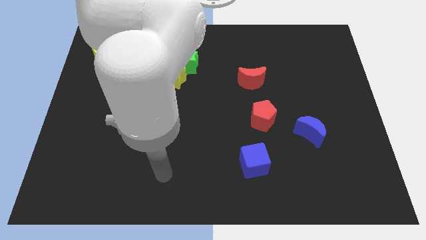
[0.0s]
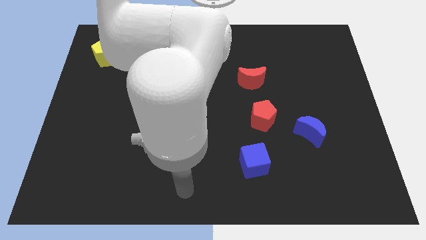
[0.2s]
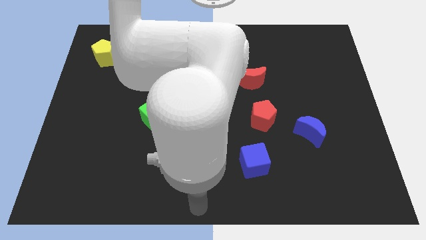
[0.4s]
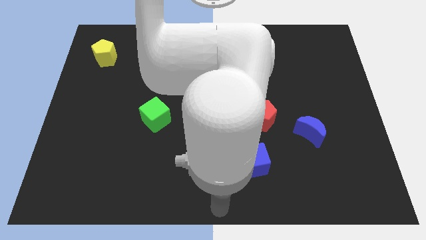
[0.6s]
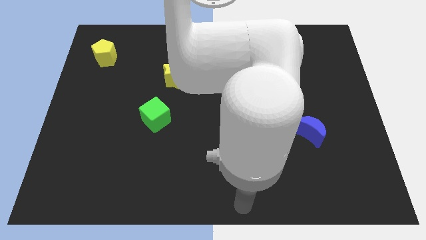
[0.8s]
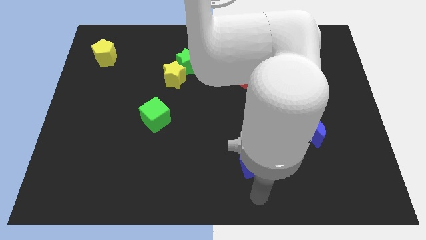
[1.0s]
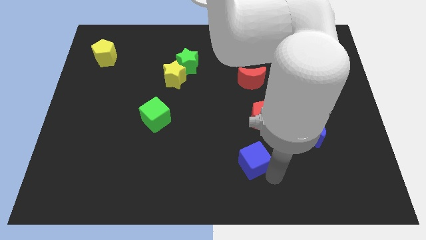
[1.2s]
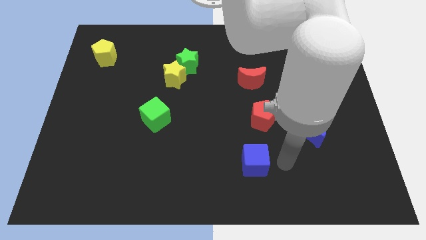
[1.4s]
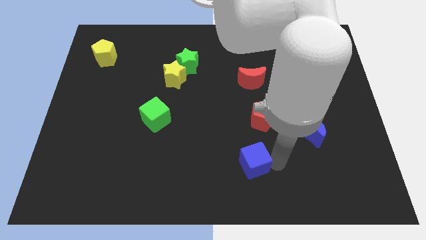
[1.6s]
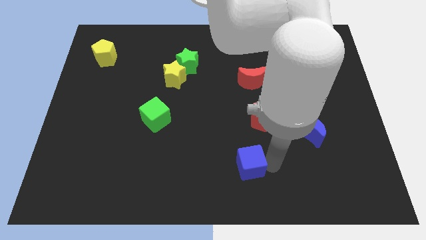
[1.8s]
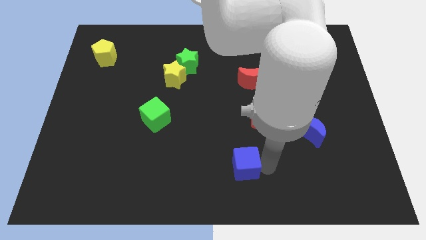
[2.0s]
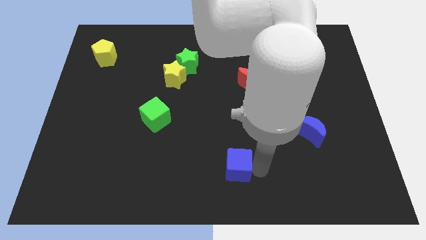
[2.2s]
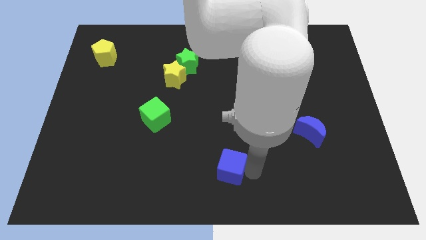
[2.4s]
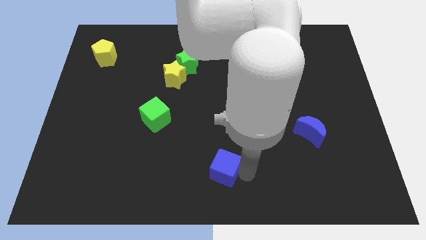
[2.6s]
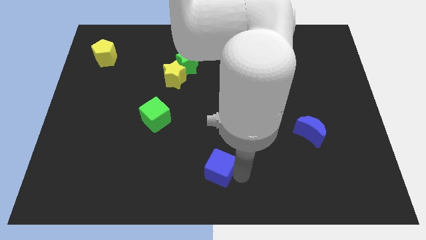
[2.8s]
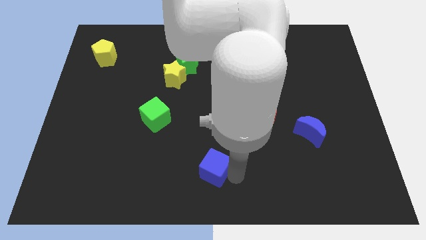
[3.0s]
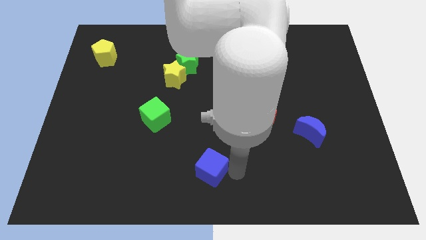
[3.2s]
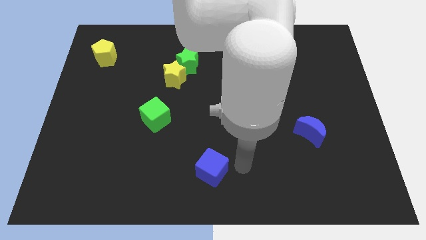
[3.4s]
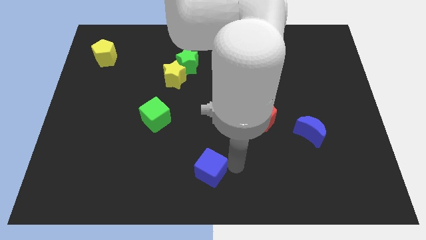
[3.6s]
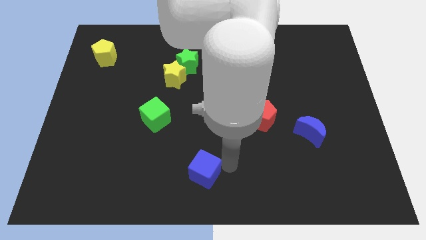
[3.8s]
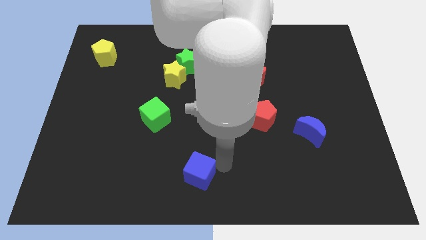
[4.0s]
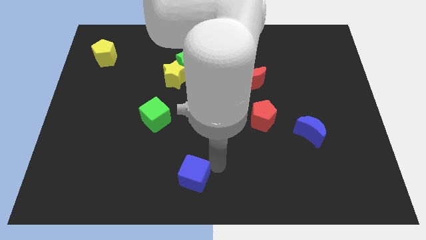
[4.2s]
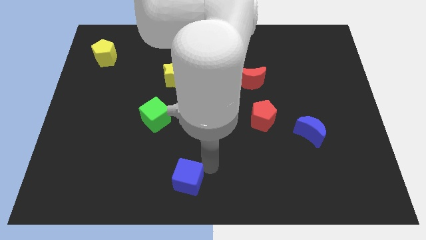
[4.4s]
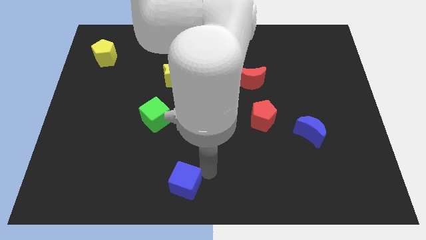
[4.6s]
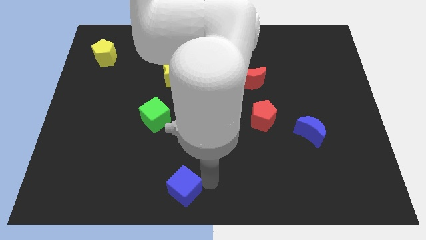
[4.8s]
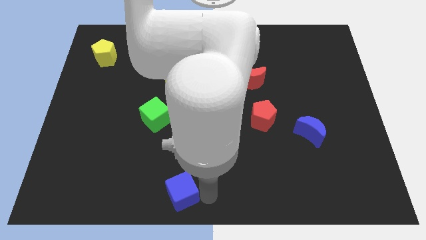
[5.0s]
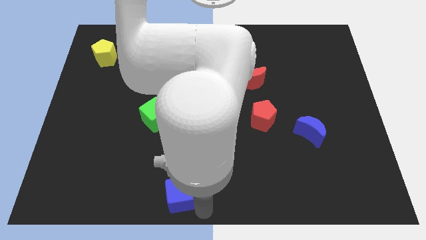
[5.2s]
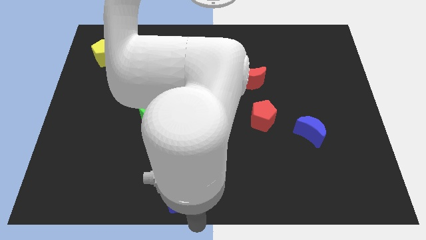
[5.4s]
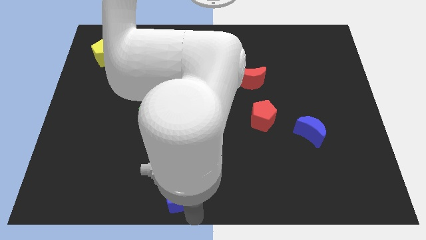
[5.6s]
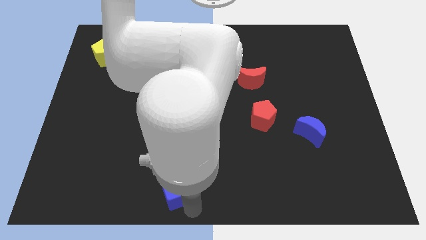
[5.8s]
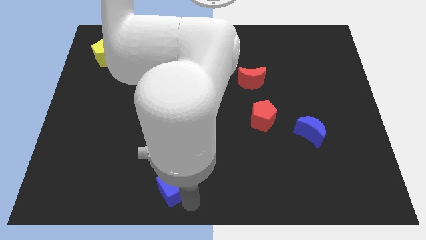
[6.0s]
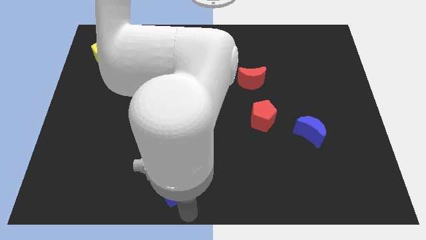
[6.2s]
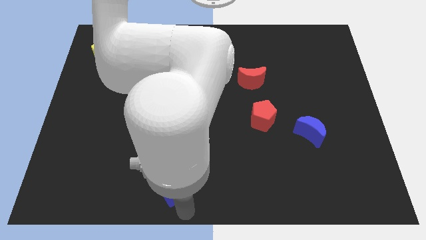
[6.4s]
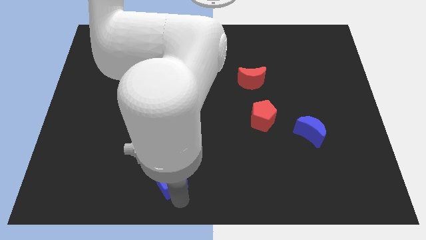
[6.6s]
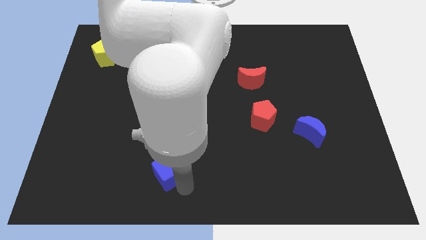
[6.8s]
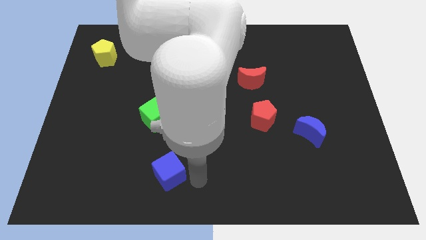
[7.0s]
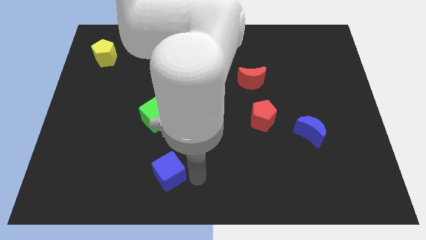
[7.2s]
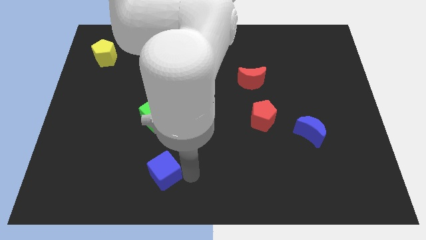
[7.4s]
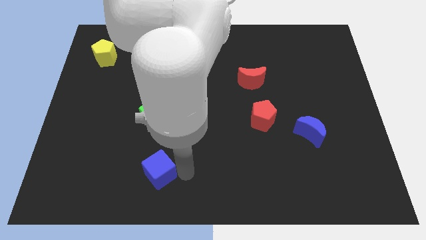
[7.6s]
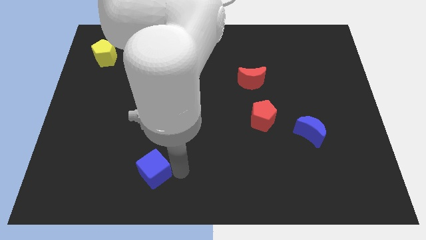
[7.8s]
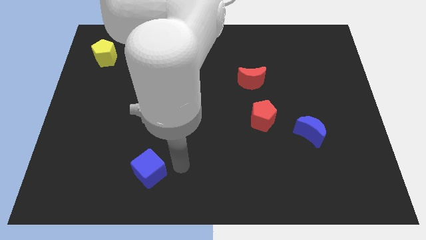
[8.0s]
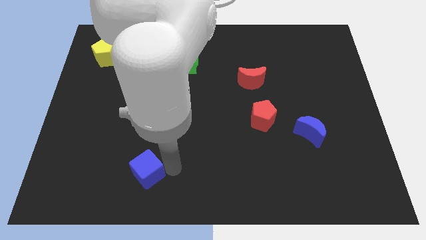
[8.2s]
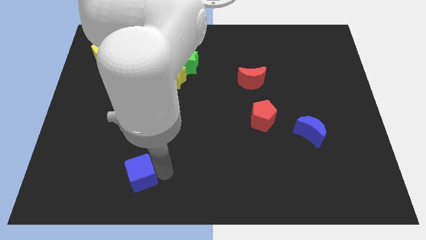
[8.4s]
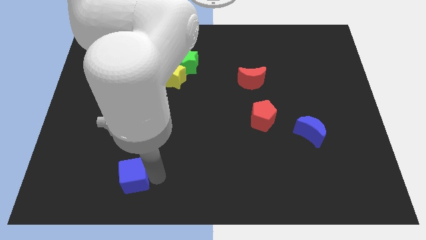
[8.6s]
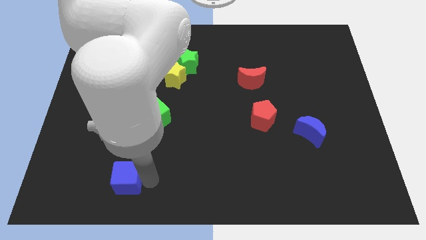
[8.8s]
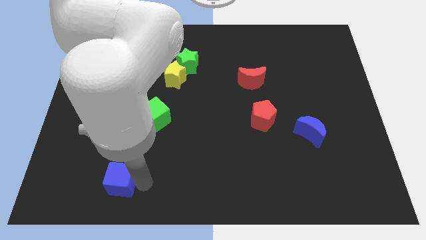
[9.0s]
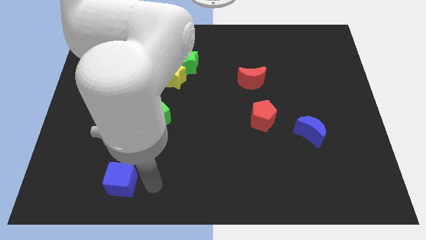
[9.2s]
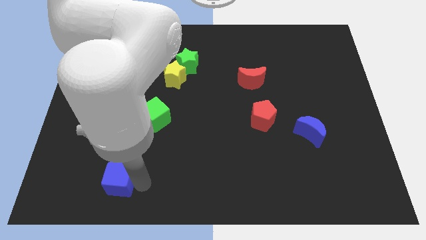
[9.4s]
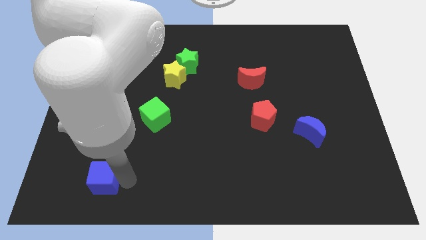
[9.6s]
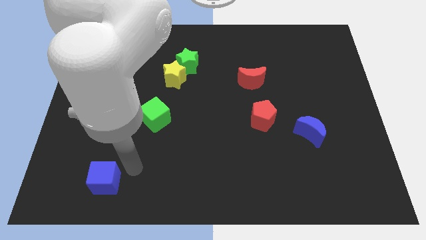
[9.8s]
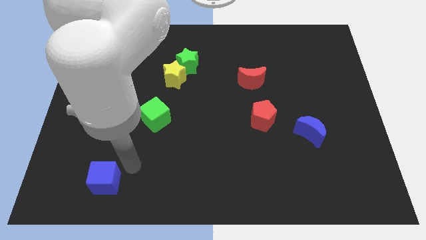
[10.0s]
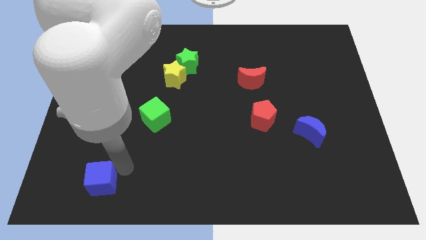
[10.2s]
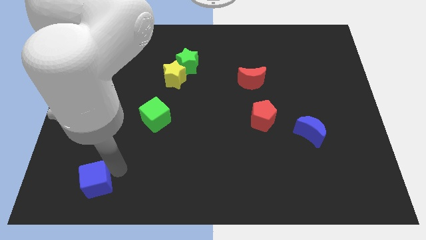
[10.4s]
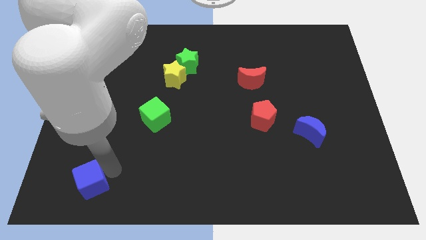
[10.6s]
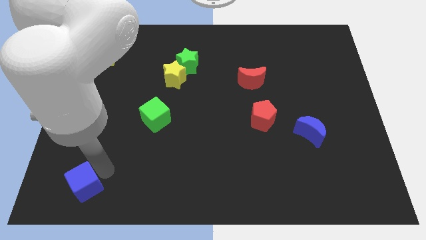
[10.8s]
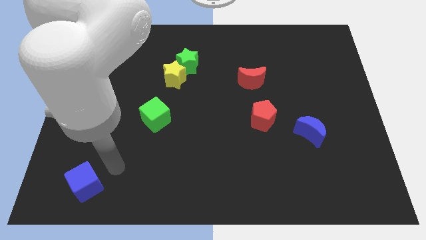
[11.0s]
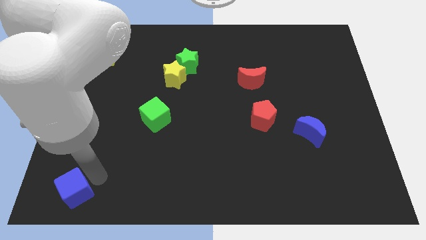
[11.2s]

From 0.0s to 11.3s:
slide the blue cube to the bottom left corner

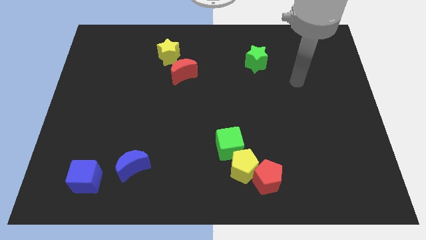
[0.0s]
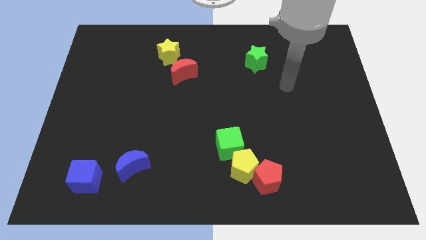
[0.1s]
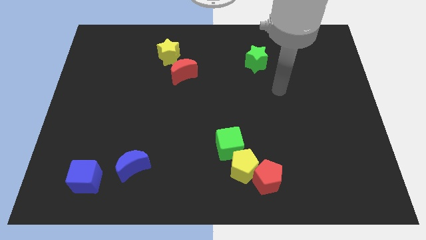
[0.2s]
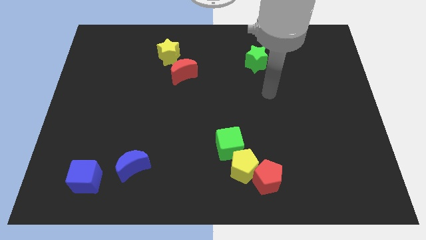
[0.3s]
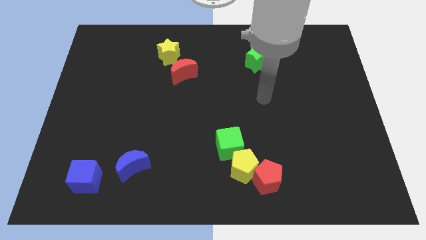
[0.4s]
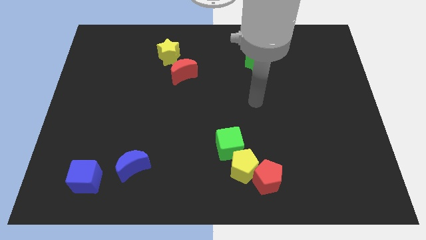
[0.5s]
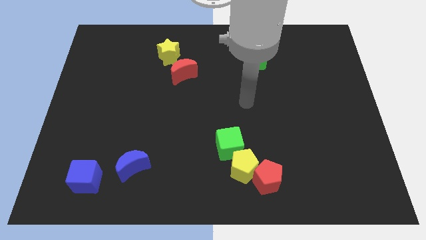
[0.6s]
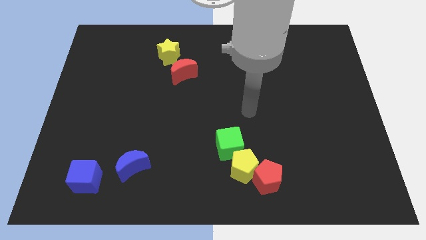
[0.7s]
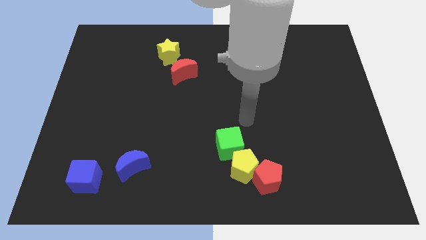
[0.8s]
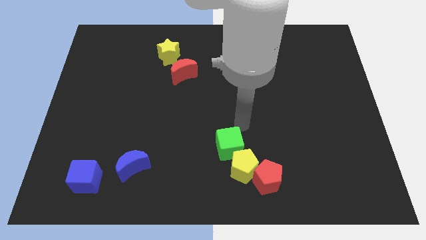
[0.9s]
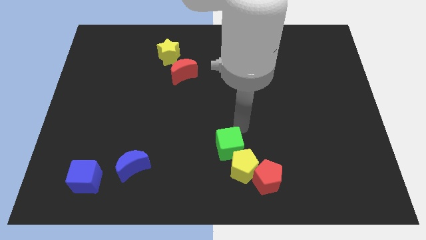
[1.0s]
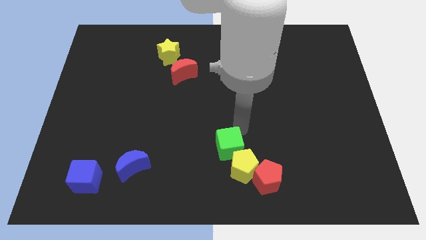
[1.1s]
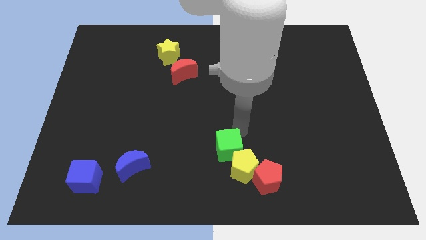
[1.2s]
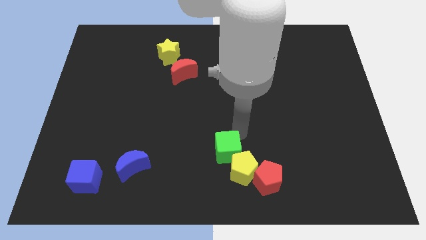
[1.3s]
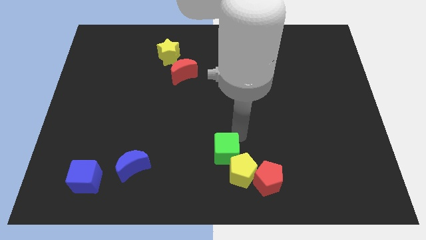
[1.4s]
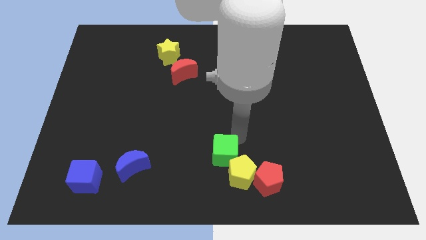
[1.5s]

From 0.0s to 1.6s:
slide the green cube to the bottom side
